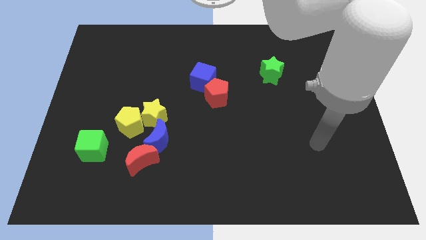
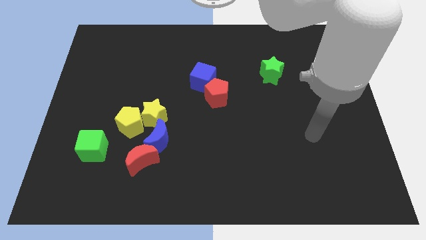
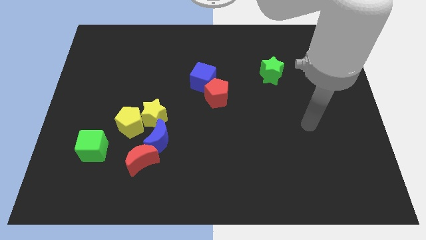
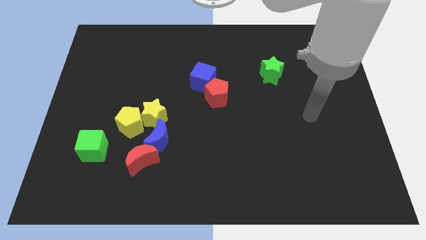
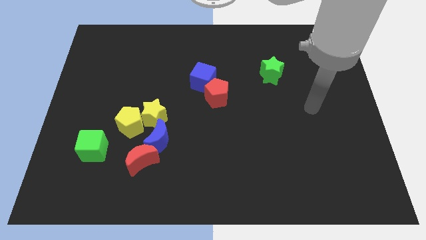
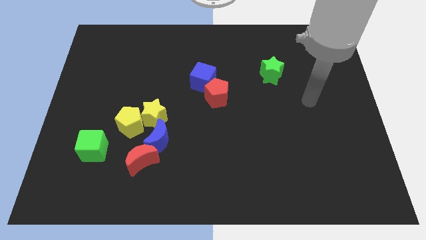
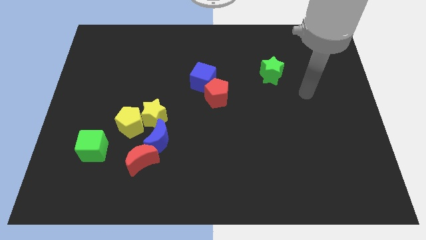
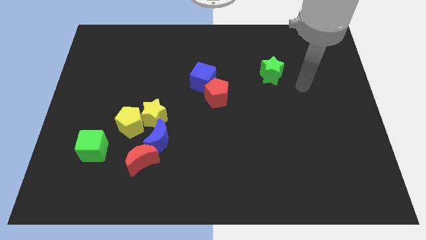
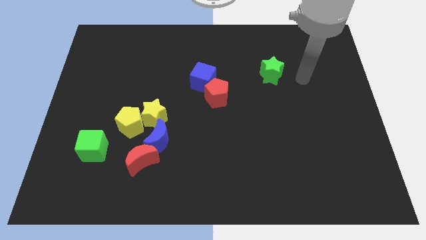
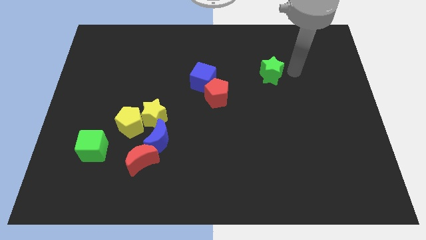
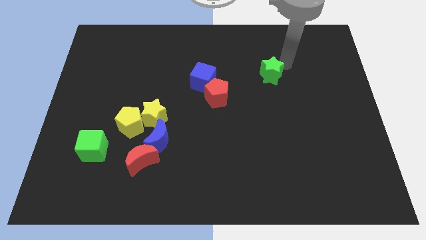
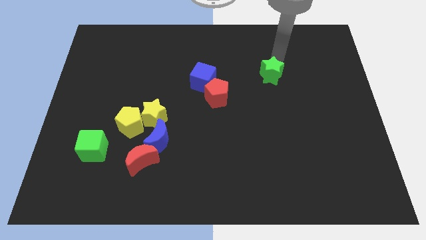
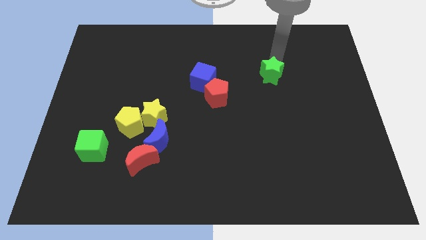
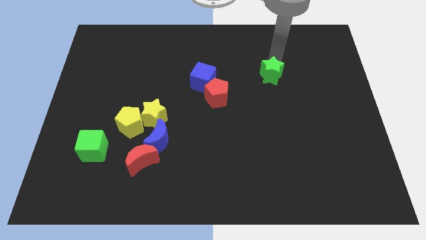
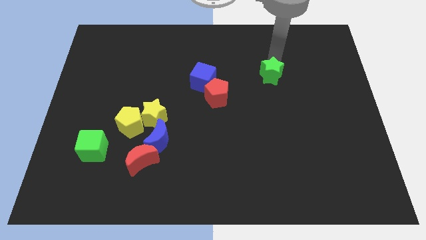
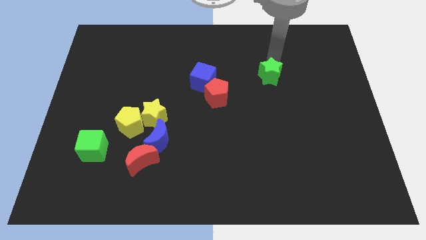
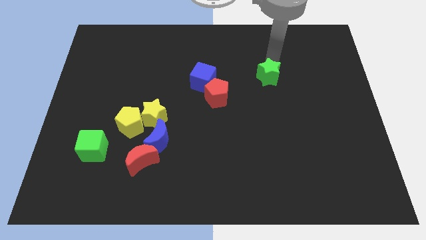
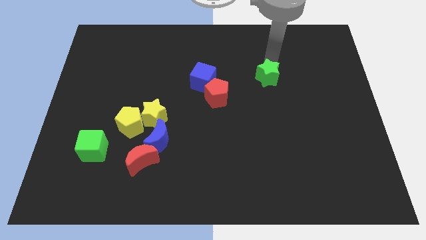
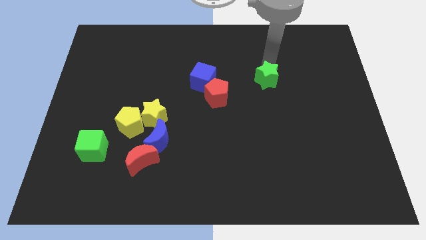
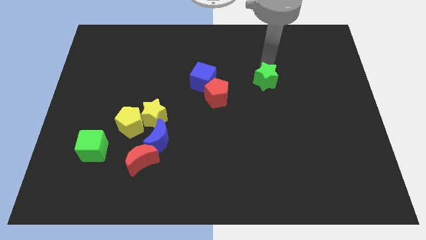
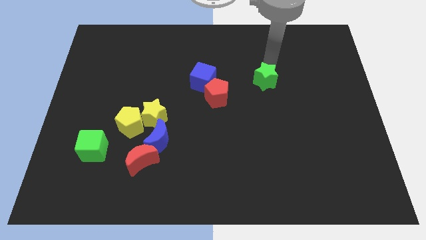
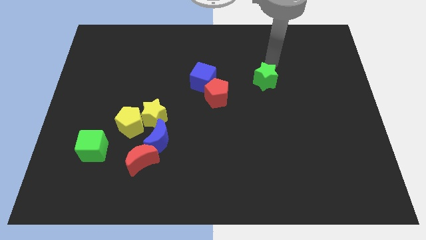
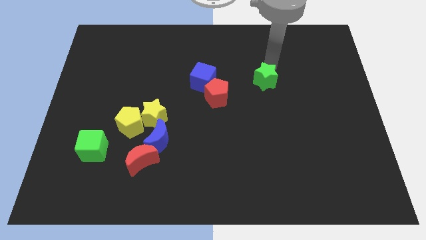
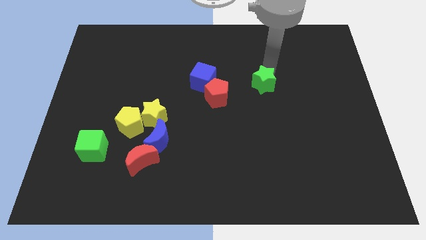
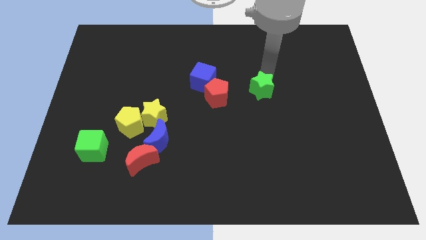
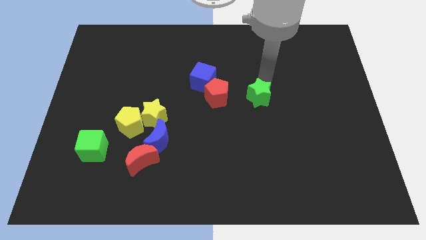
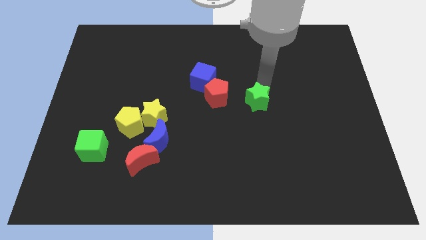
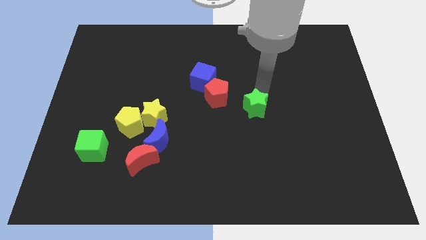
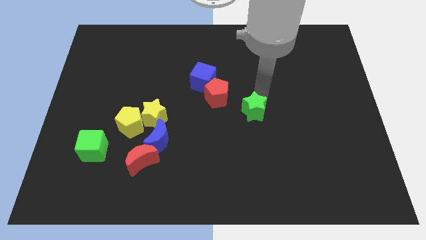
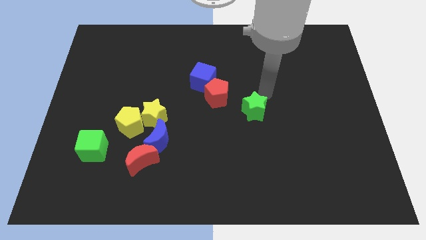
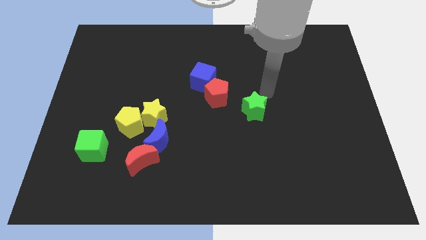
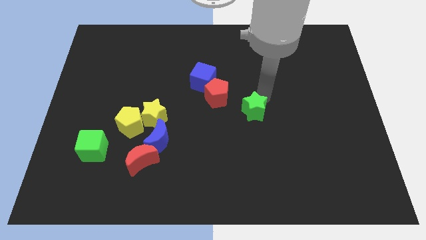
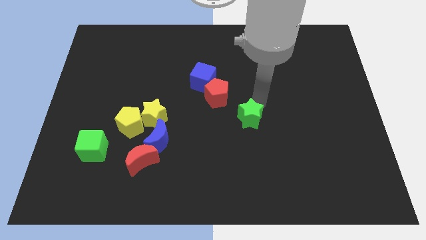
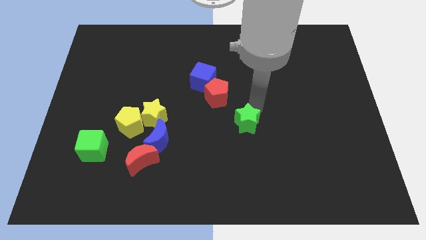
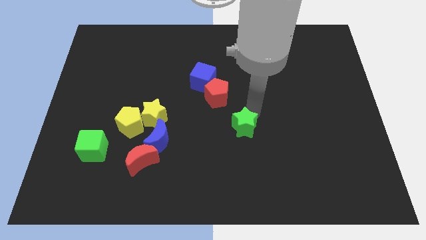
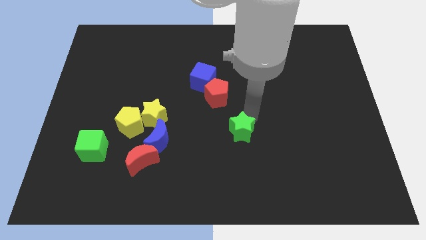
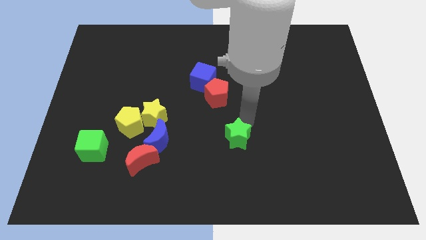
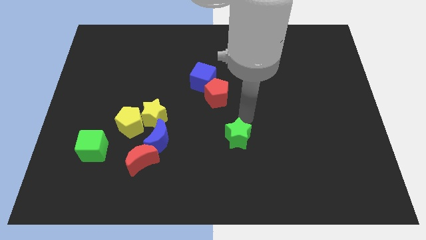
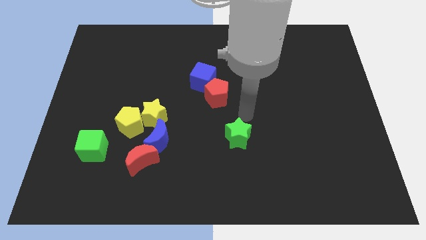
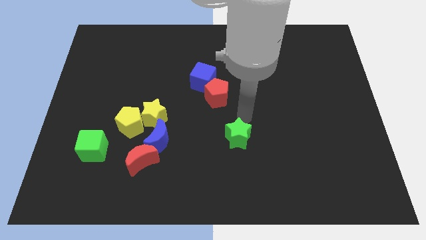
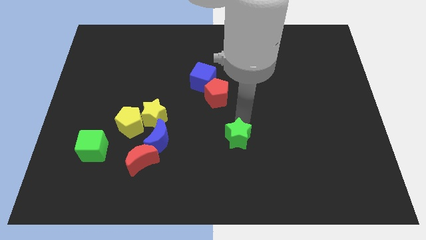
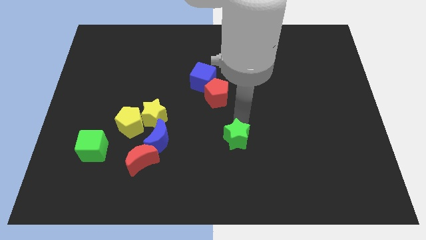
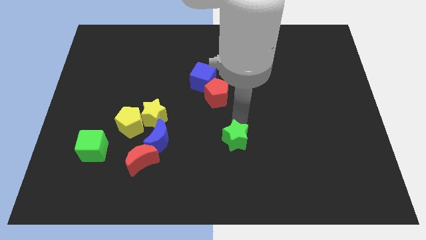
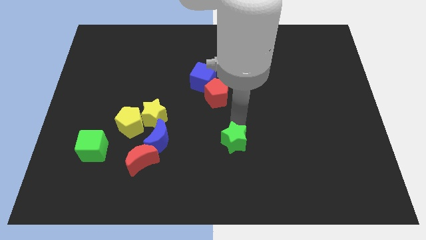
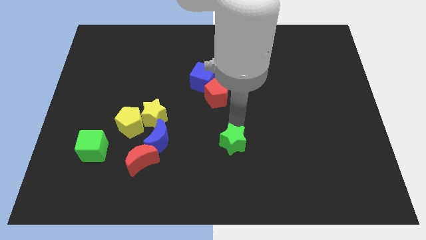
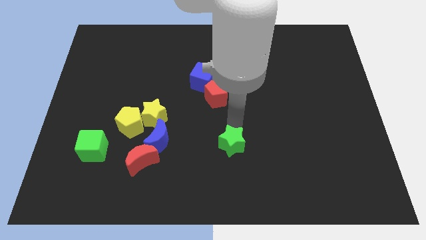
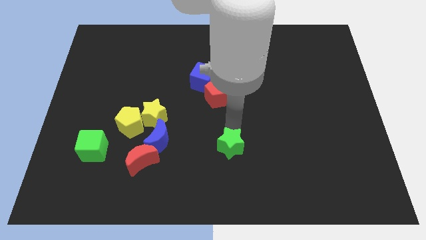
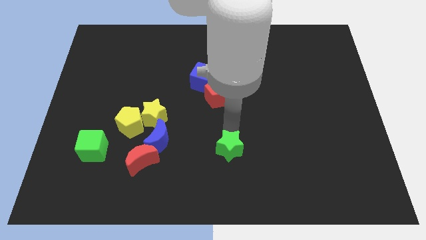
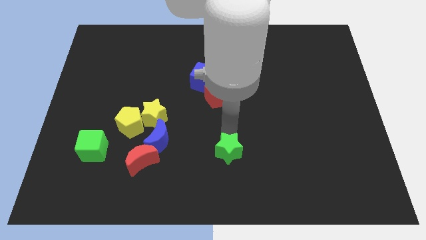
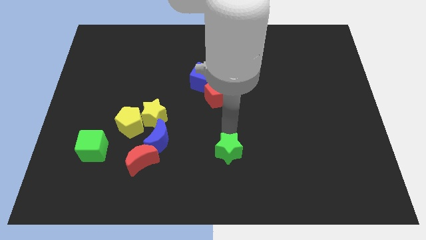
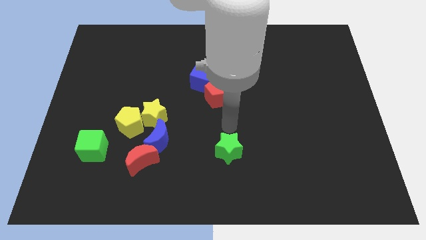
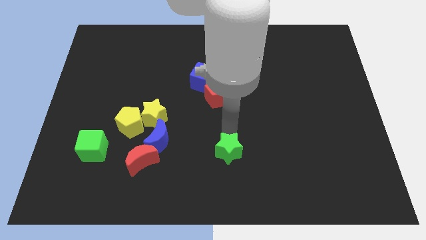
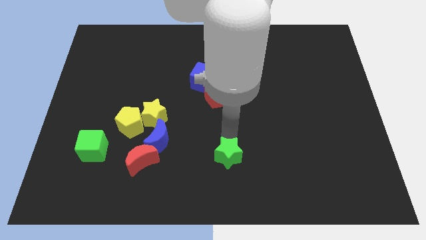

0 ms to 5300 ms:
move the green star to the bottom
